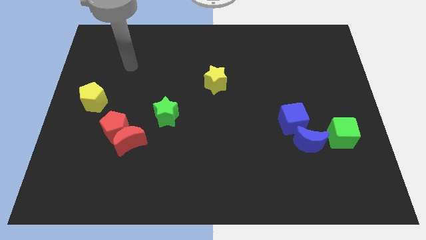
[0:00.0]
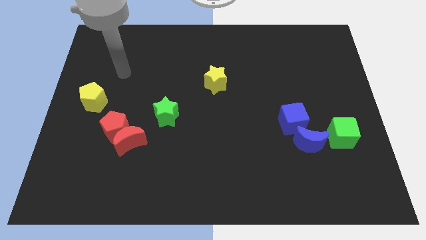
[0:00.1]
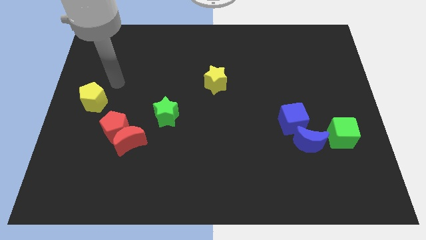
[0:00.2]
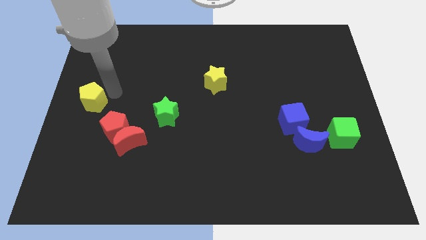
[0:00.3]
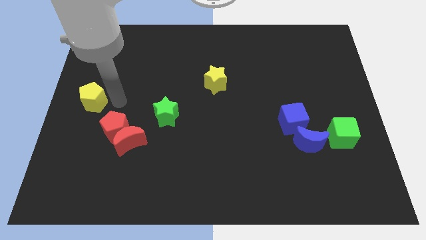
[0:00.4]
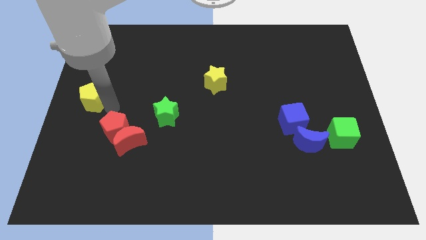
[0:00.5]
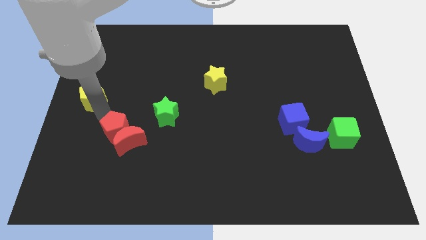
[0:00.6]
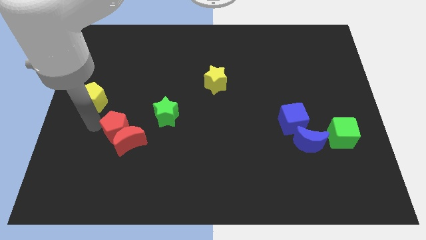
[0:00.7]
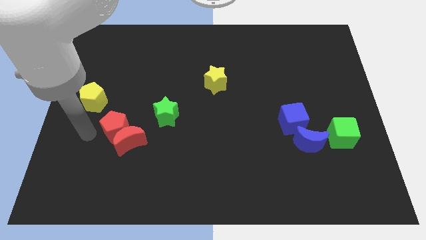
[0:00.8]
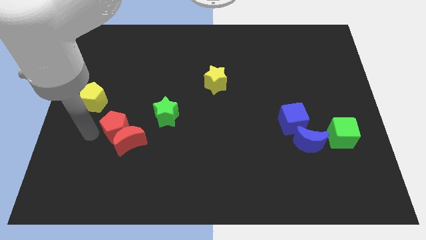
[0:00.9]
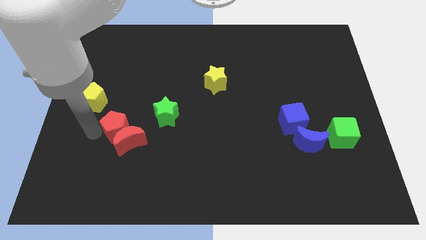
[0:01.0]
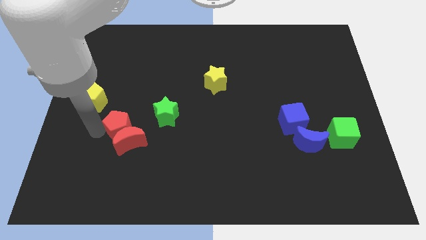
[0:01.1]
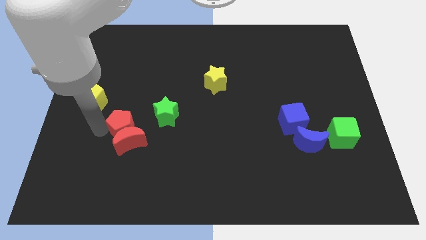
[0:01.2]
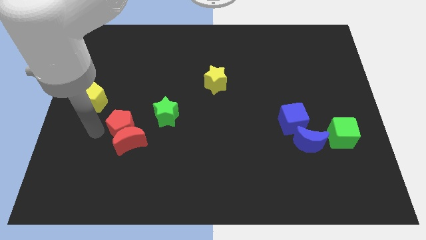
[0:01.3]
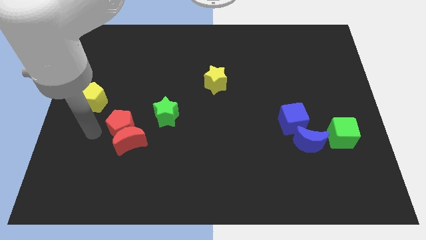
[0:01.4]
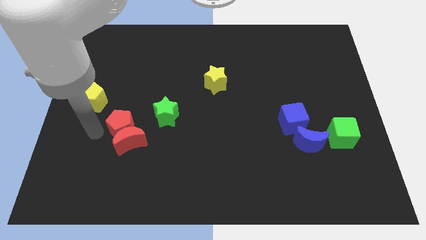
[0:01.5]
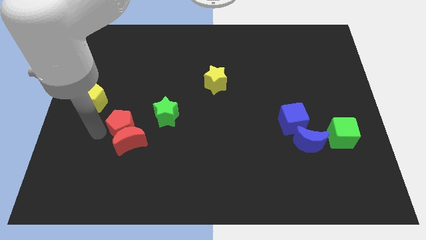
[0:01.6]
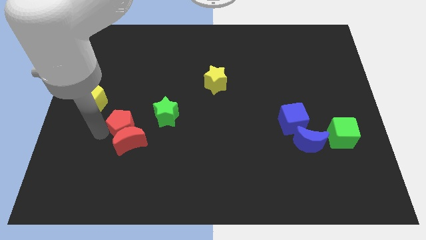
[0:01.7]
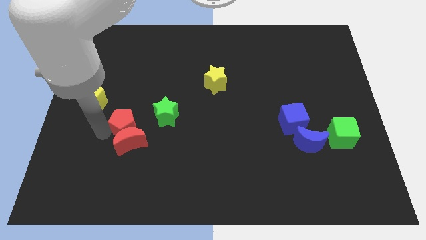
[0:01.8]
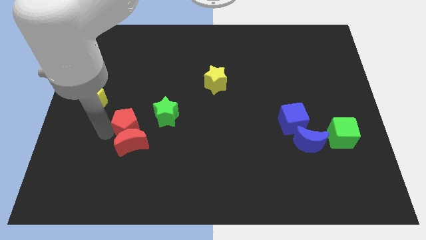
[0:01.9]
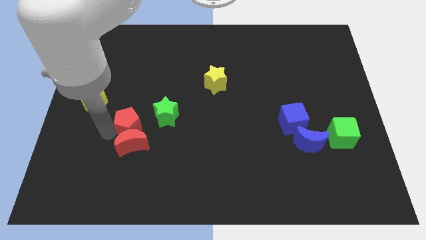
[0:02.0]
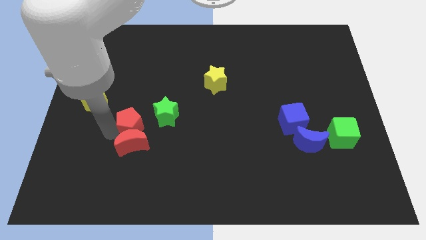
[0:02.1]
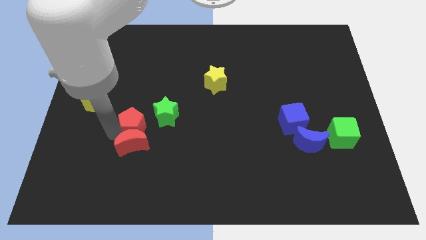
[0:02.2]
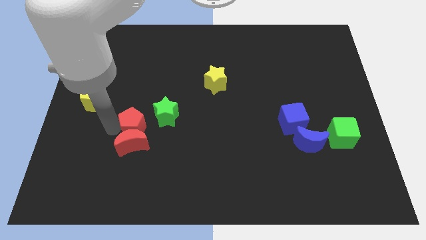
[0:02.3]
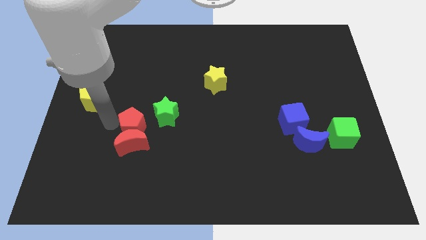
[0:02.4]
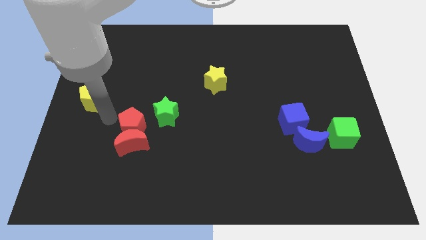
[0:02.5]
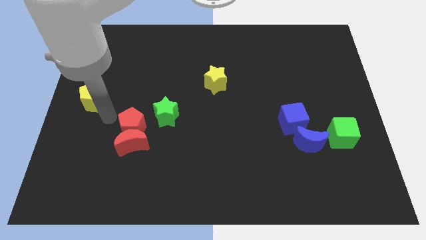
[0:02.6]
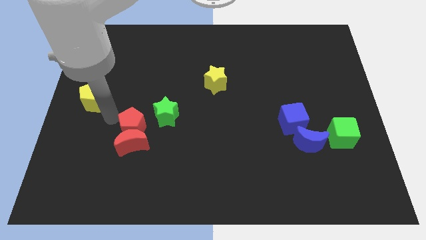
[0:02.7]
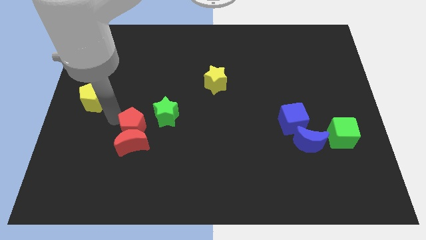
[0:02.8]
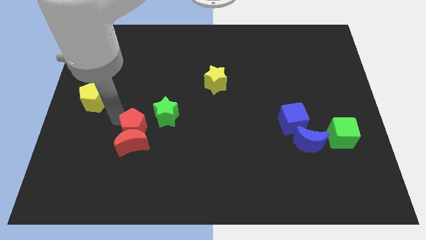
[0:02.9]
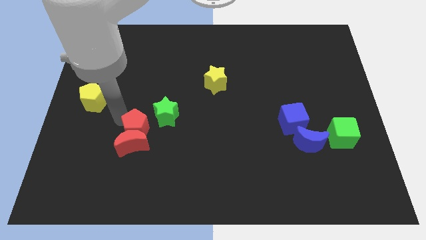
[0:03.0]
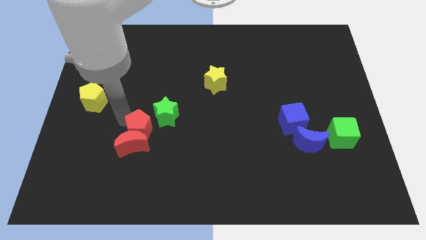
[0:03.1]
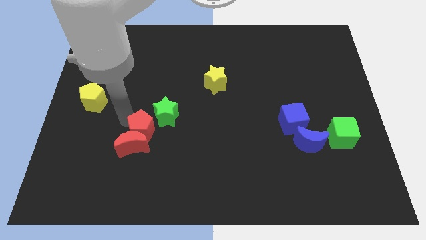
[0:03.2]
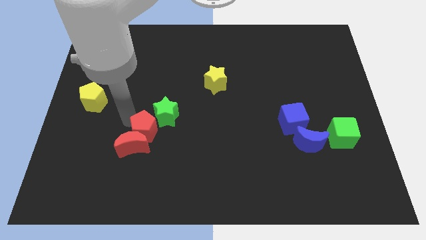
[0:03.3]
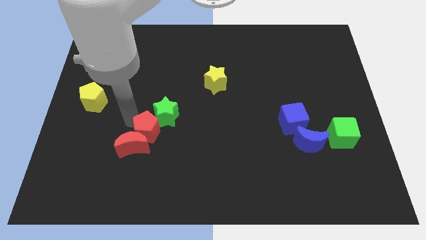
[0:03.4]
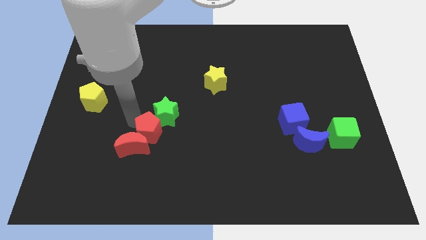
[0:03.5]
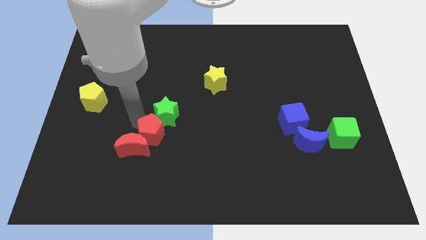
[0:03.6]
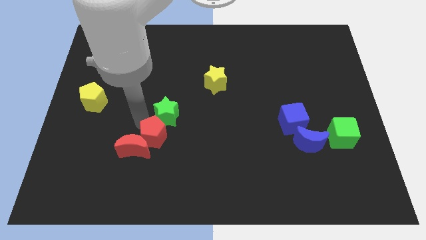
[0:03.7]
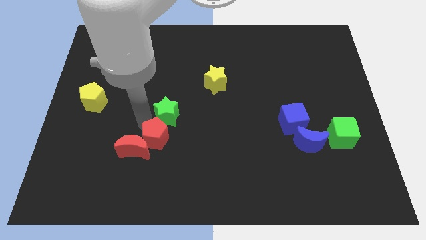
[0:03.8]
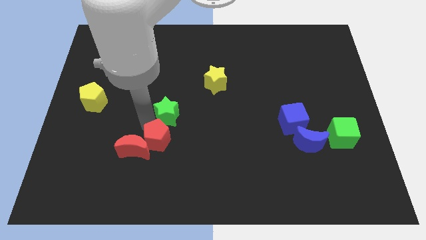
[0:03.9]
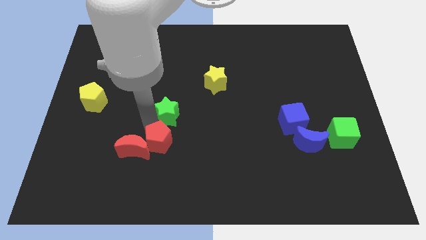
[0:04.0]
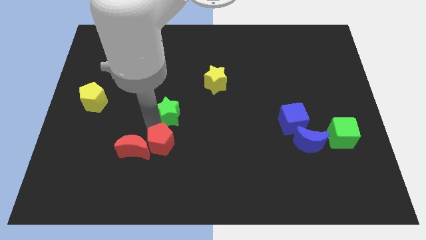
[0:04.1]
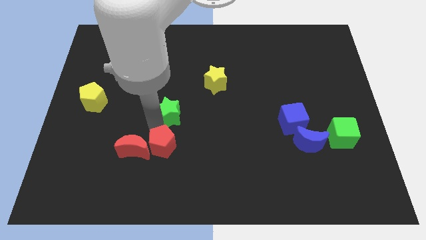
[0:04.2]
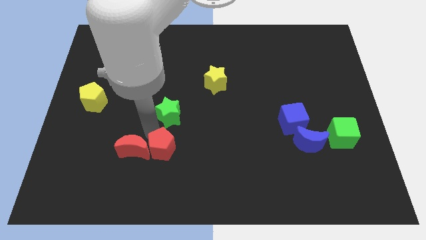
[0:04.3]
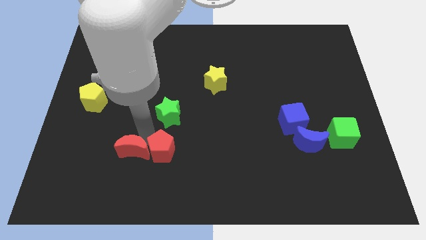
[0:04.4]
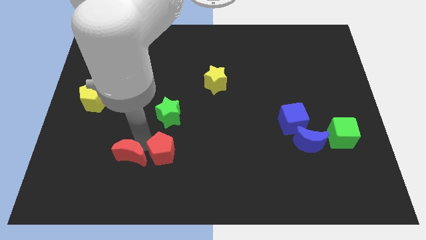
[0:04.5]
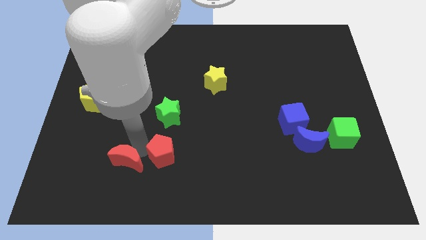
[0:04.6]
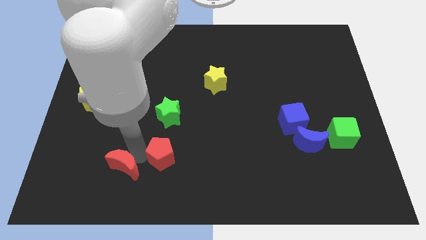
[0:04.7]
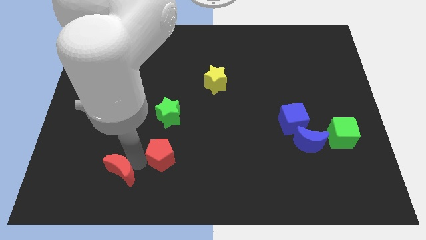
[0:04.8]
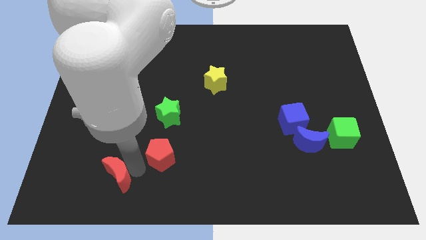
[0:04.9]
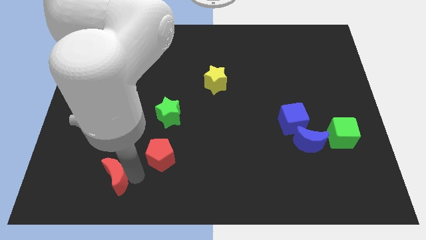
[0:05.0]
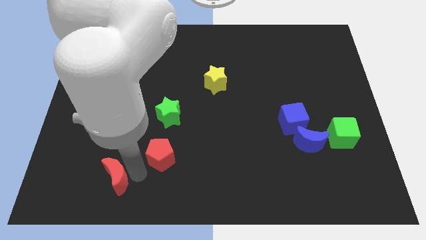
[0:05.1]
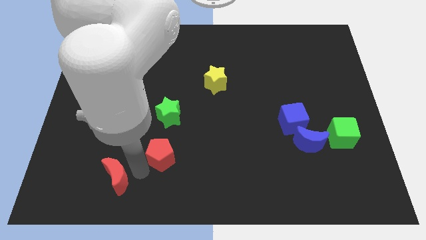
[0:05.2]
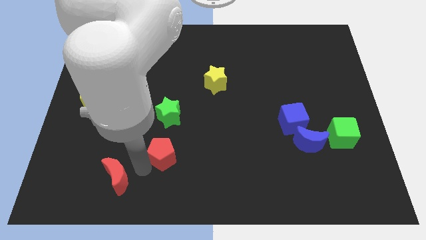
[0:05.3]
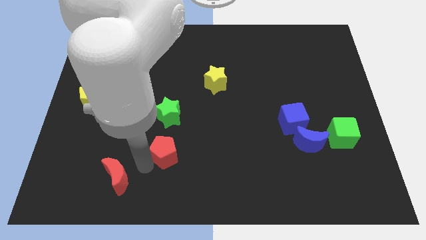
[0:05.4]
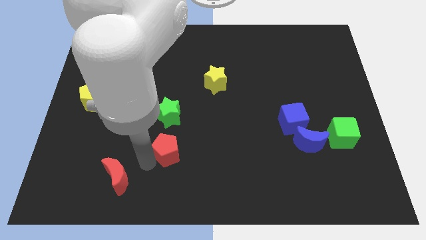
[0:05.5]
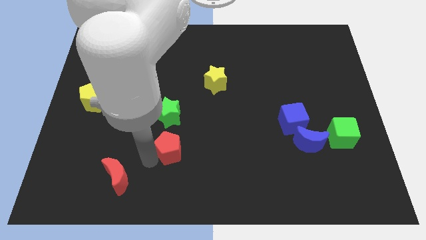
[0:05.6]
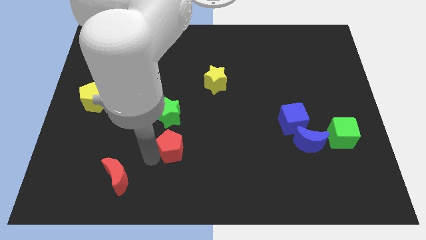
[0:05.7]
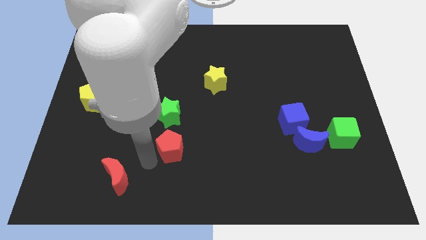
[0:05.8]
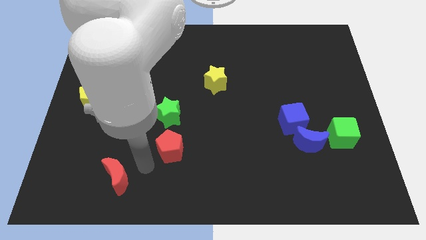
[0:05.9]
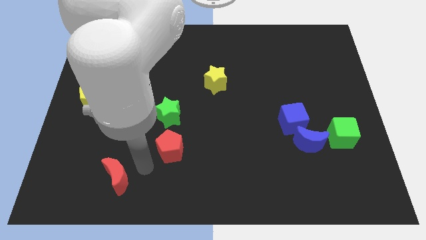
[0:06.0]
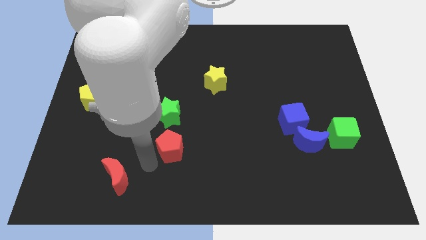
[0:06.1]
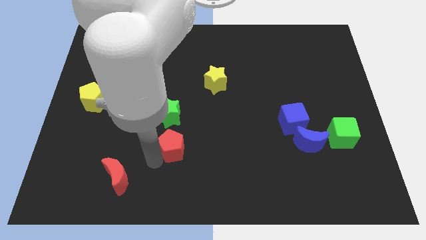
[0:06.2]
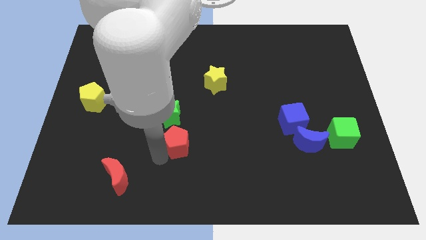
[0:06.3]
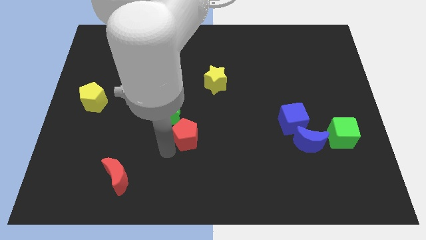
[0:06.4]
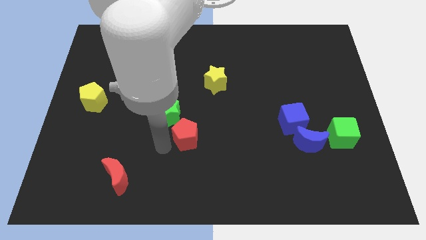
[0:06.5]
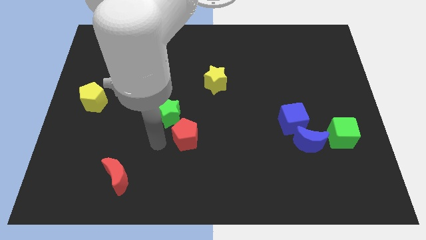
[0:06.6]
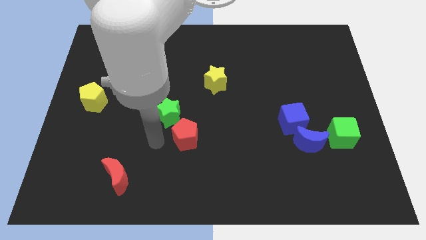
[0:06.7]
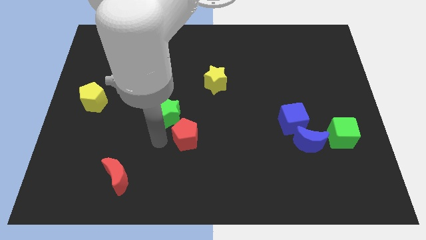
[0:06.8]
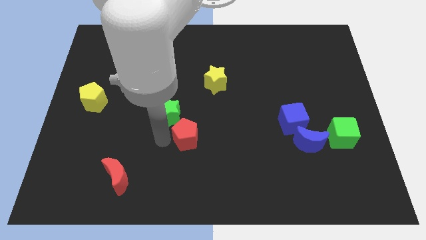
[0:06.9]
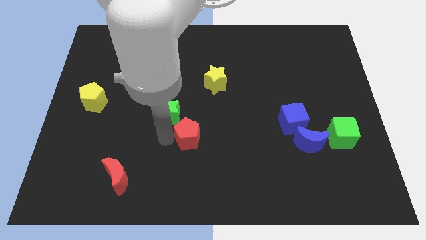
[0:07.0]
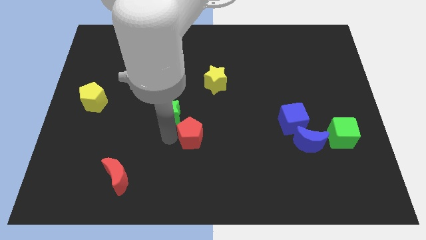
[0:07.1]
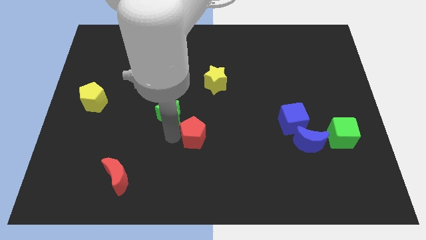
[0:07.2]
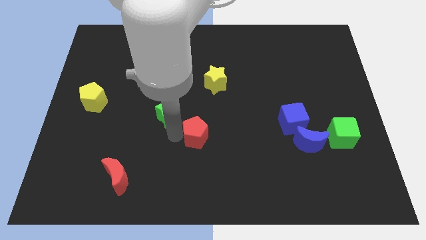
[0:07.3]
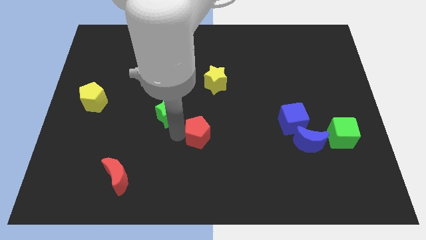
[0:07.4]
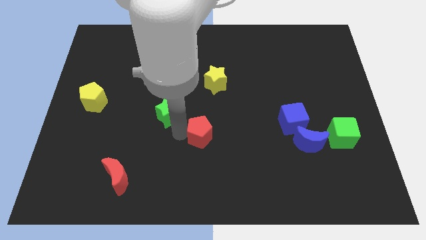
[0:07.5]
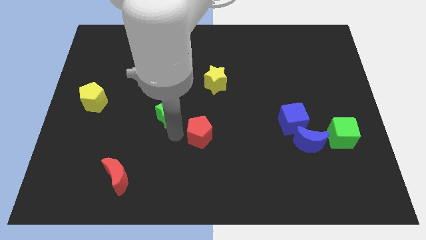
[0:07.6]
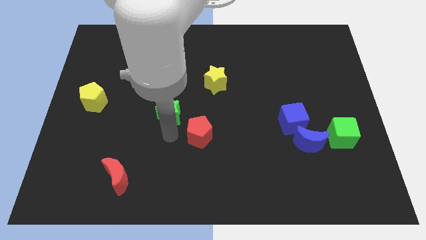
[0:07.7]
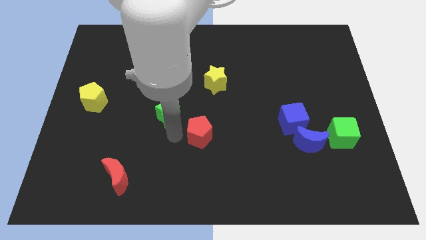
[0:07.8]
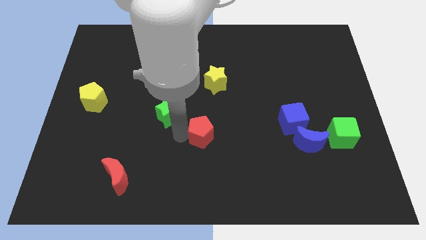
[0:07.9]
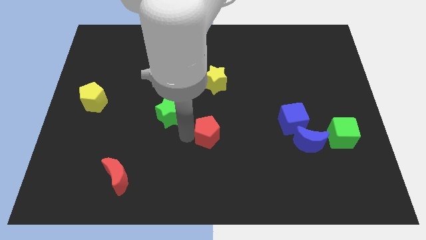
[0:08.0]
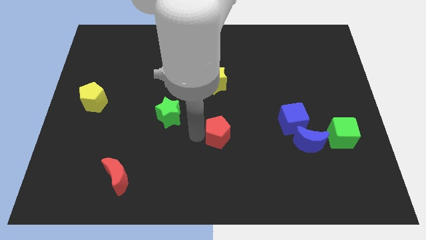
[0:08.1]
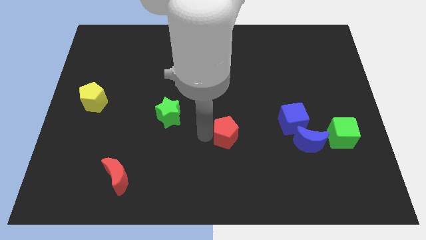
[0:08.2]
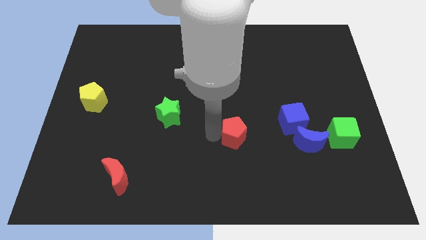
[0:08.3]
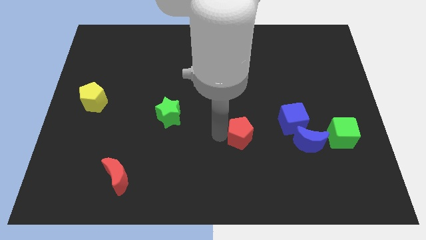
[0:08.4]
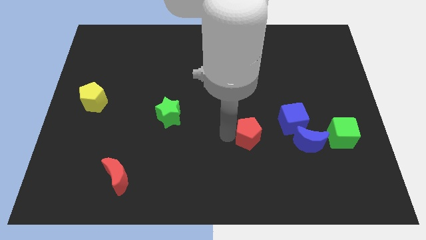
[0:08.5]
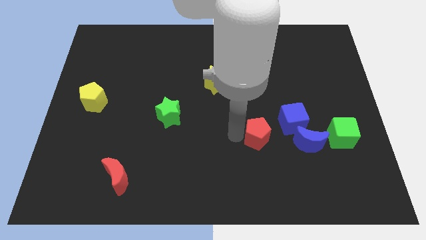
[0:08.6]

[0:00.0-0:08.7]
move the red pentagon diagonally down and to the left of the blue cube
